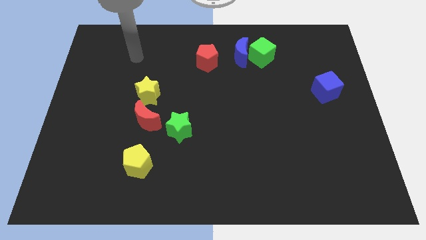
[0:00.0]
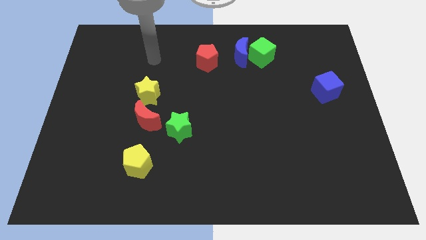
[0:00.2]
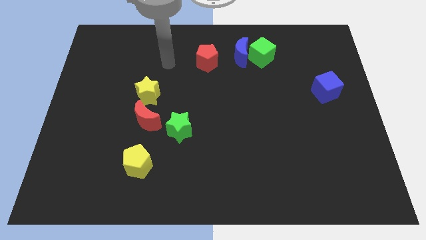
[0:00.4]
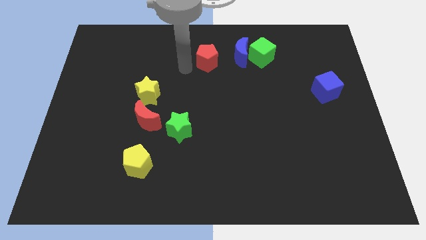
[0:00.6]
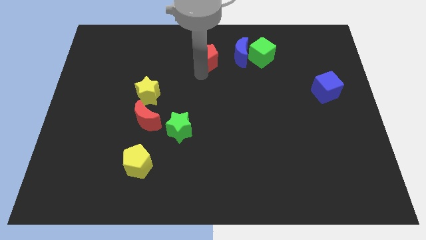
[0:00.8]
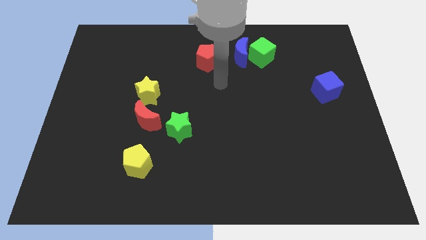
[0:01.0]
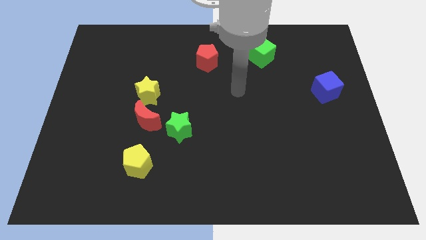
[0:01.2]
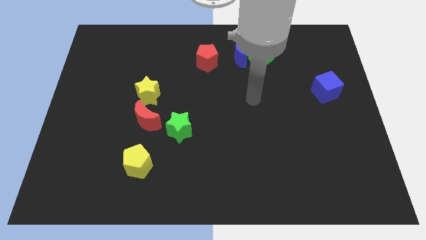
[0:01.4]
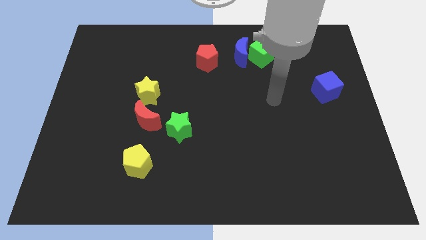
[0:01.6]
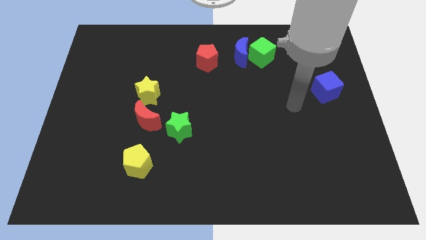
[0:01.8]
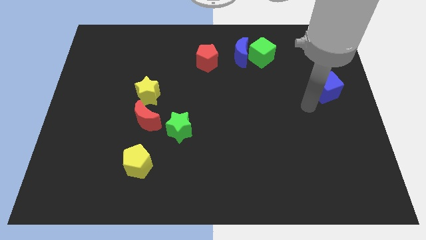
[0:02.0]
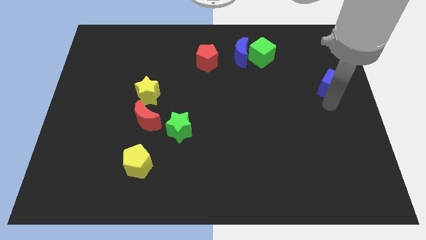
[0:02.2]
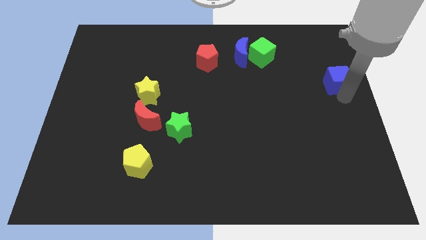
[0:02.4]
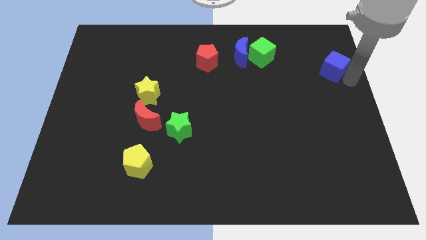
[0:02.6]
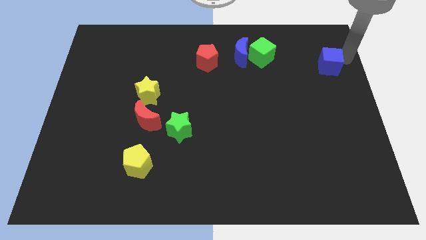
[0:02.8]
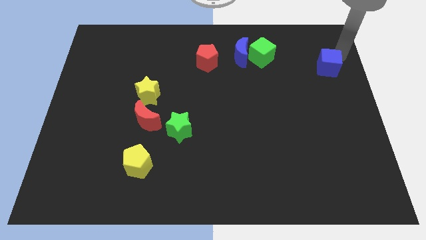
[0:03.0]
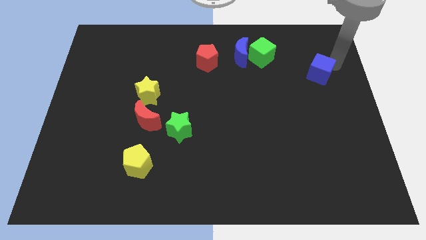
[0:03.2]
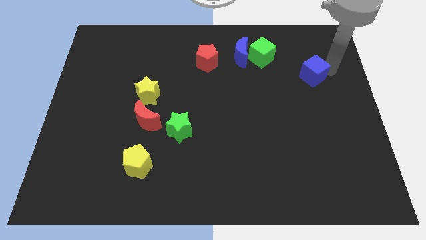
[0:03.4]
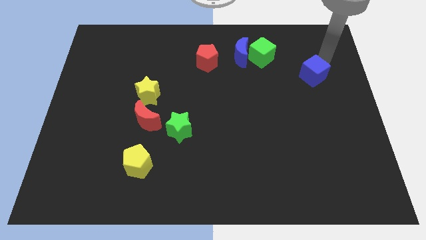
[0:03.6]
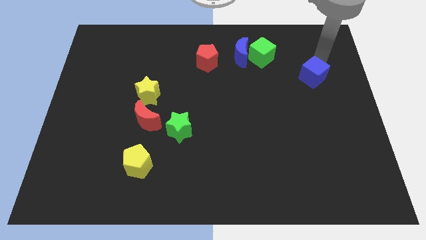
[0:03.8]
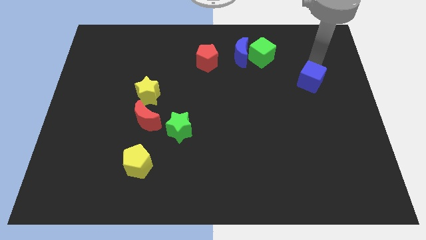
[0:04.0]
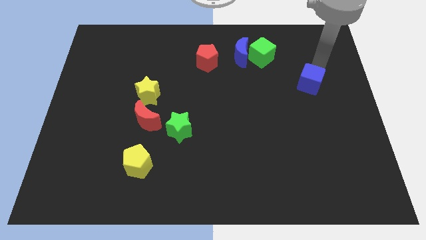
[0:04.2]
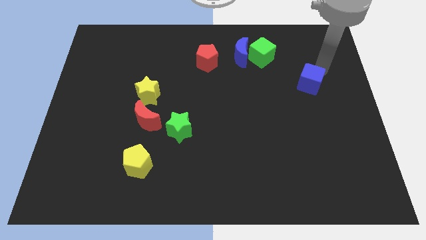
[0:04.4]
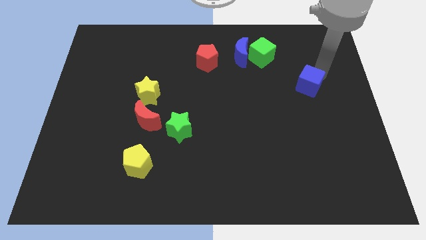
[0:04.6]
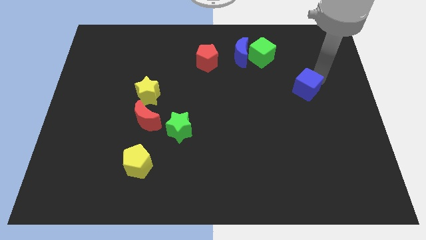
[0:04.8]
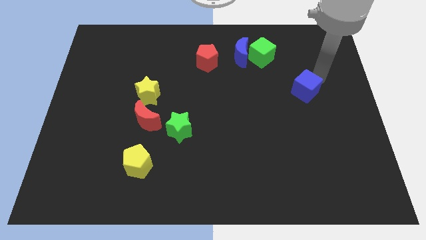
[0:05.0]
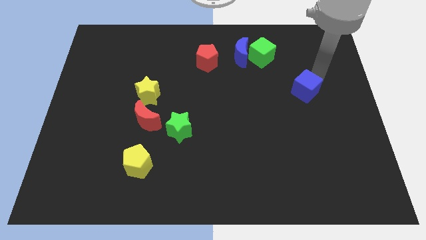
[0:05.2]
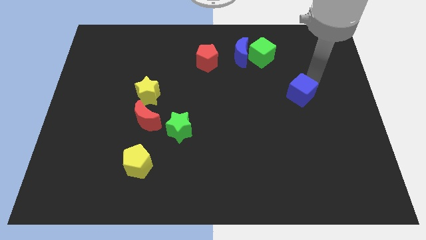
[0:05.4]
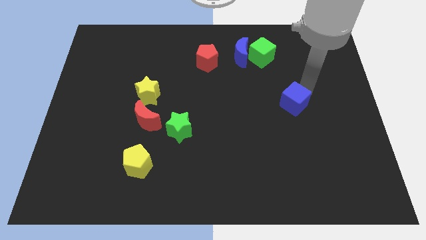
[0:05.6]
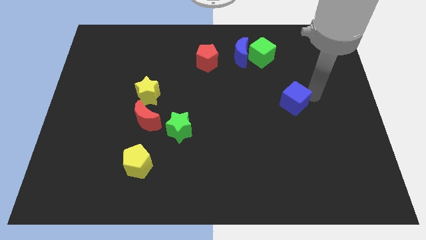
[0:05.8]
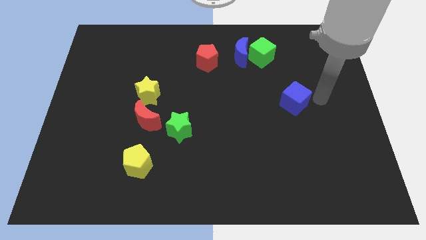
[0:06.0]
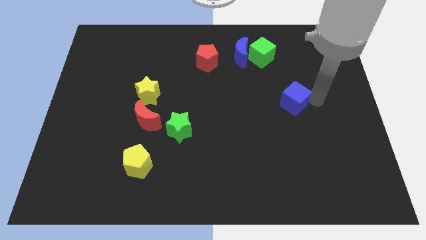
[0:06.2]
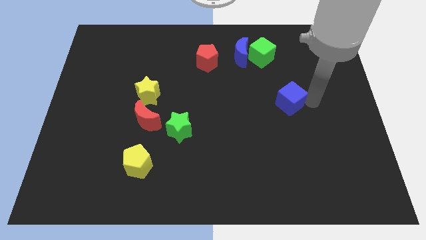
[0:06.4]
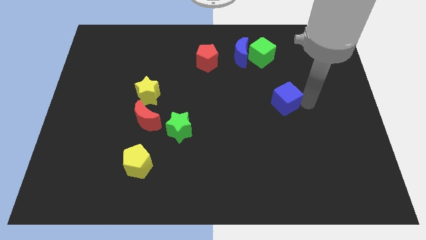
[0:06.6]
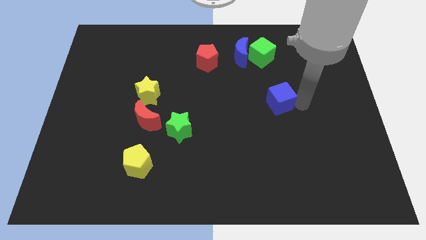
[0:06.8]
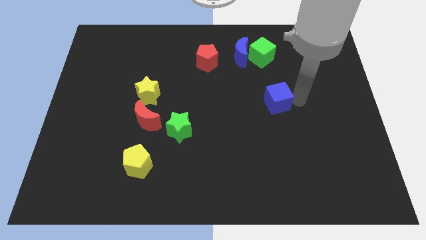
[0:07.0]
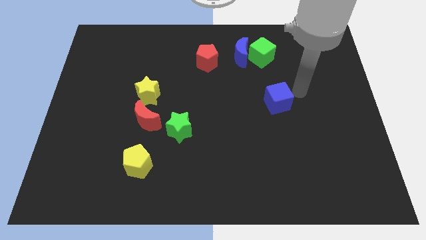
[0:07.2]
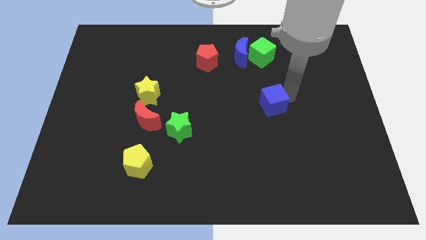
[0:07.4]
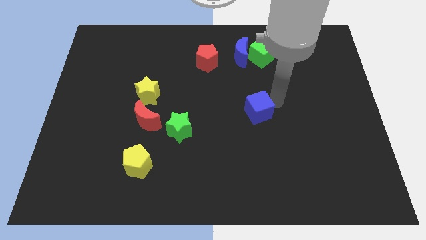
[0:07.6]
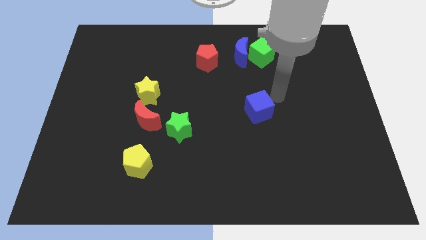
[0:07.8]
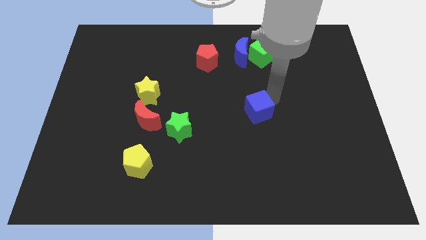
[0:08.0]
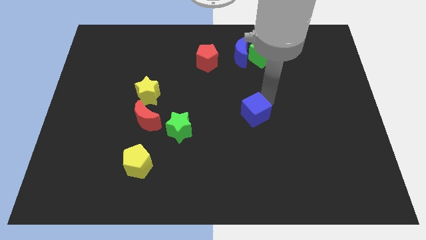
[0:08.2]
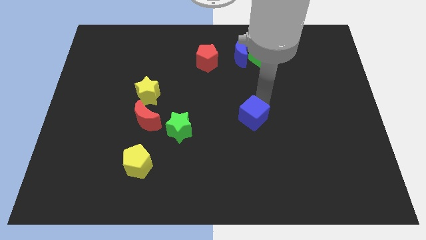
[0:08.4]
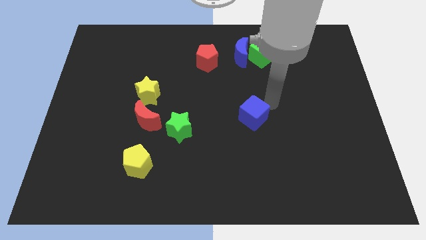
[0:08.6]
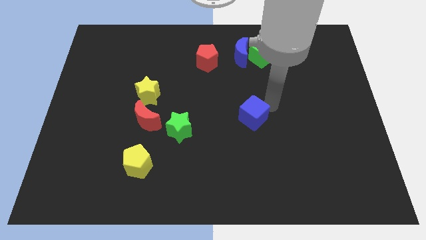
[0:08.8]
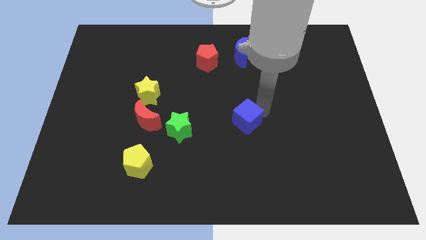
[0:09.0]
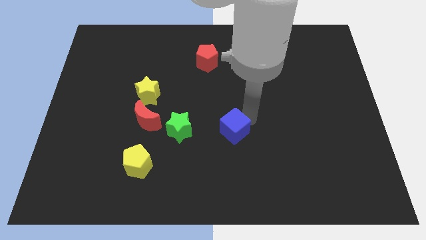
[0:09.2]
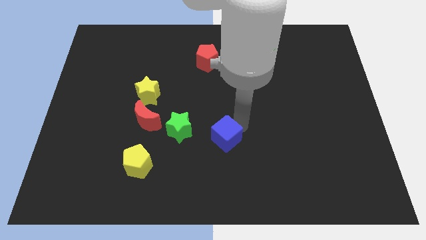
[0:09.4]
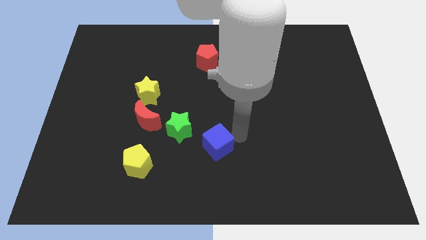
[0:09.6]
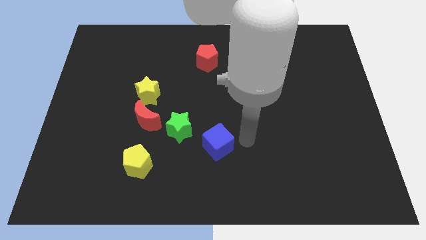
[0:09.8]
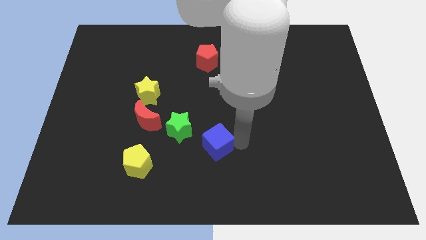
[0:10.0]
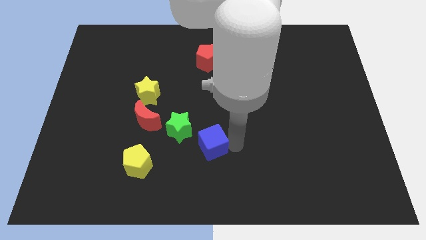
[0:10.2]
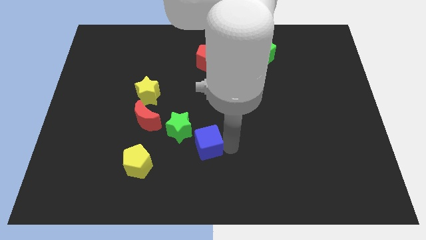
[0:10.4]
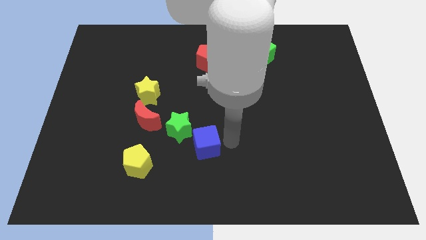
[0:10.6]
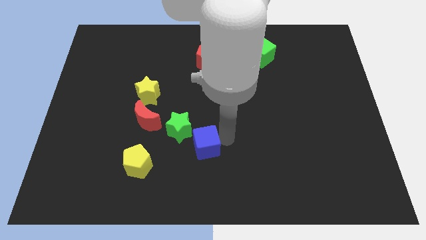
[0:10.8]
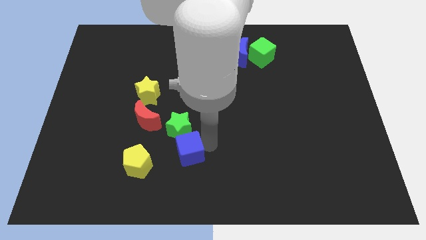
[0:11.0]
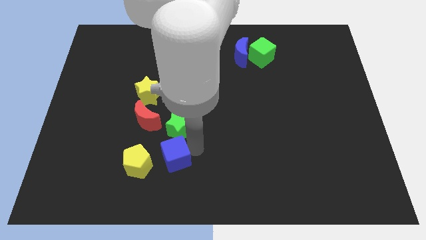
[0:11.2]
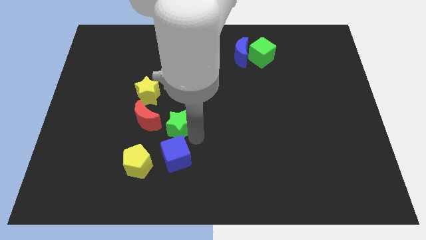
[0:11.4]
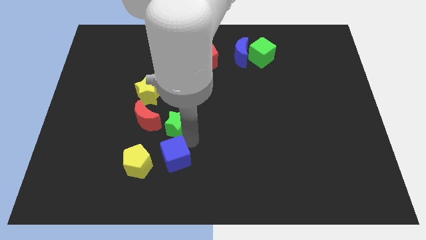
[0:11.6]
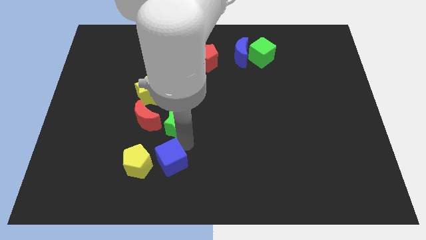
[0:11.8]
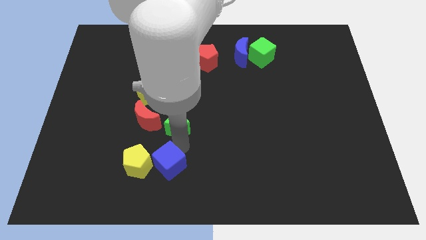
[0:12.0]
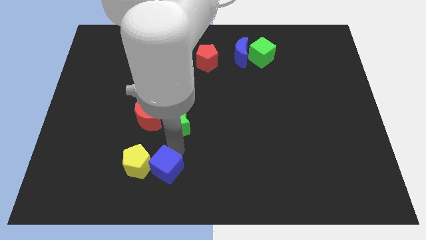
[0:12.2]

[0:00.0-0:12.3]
push the blue cube next to the yellow pentagon

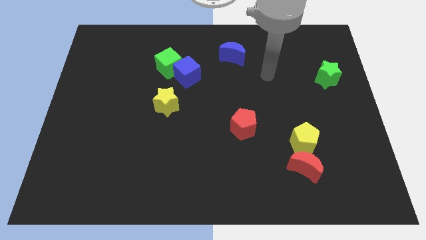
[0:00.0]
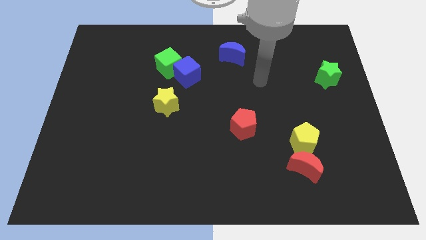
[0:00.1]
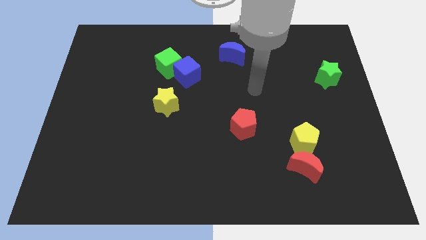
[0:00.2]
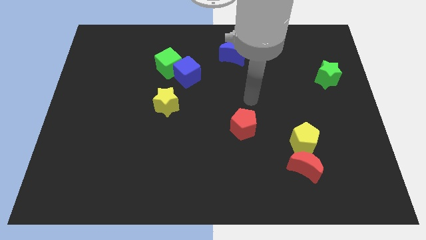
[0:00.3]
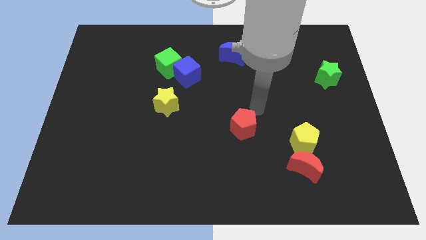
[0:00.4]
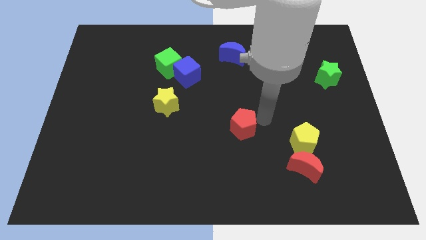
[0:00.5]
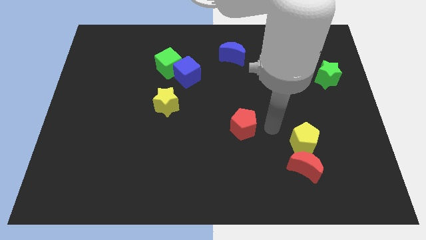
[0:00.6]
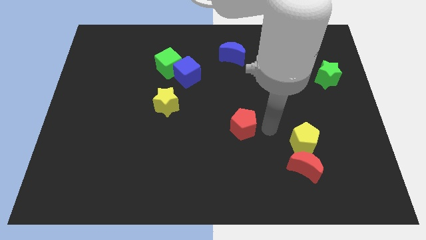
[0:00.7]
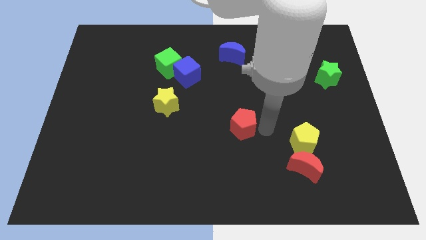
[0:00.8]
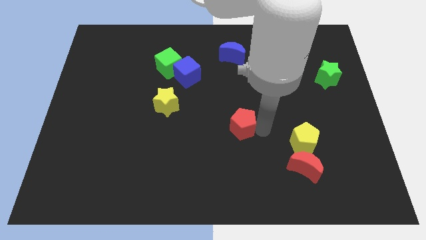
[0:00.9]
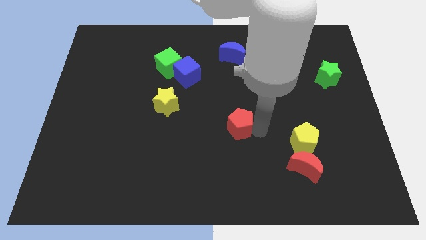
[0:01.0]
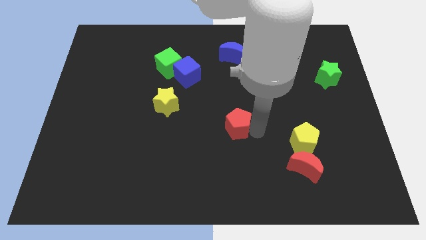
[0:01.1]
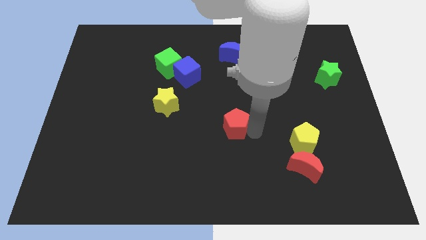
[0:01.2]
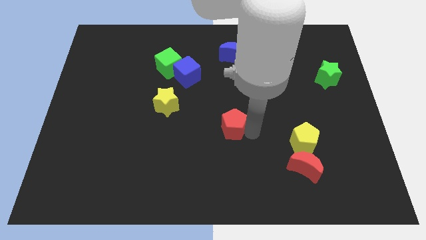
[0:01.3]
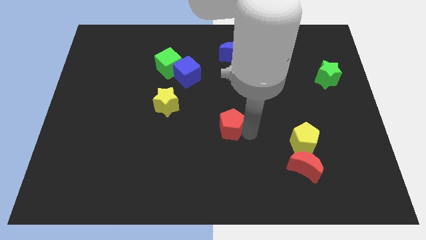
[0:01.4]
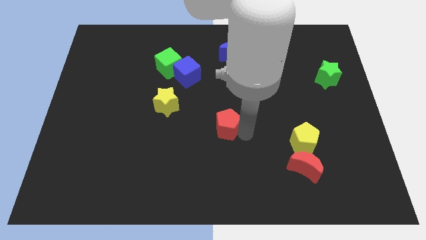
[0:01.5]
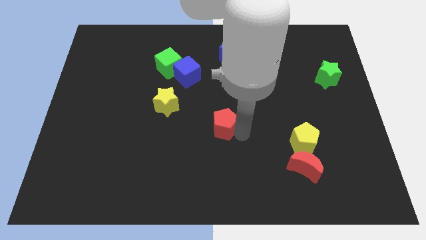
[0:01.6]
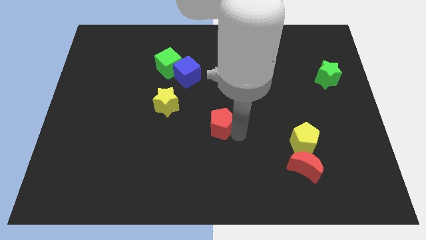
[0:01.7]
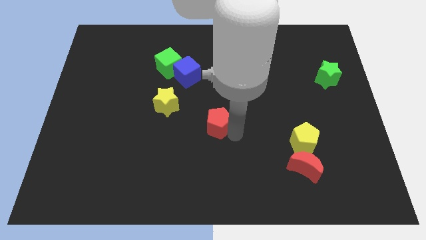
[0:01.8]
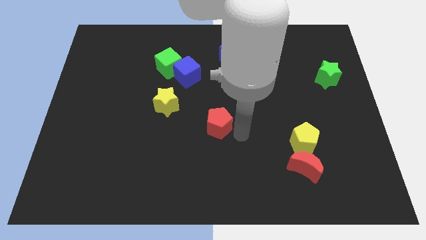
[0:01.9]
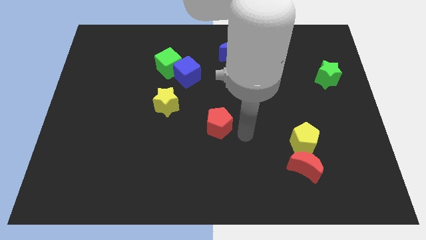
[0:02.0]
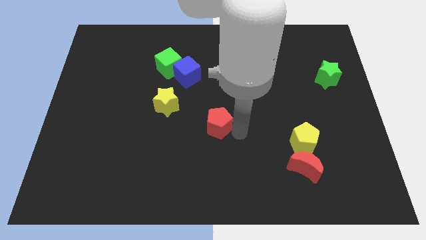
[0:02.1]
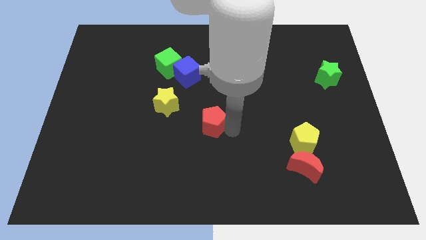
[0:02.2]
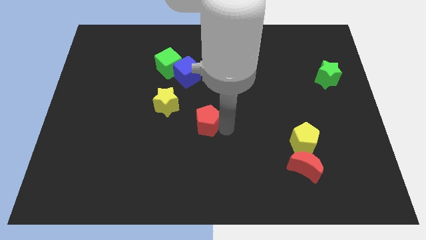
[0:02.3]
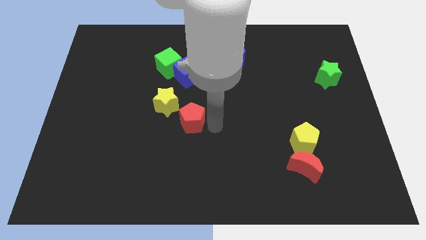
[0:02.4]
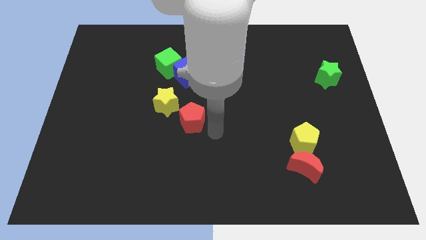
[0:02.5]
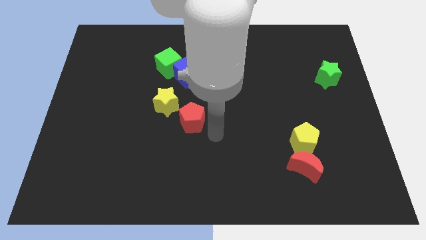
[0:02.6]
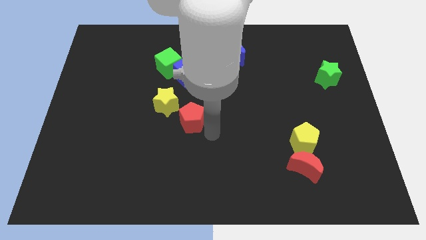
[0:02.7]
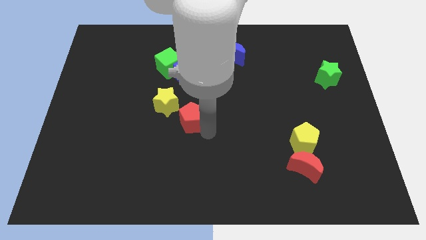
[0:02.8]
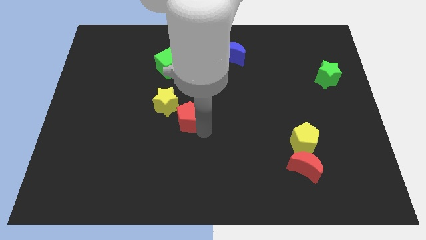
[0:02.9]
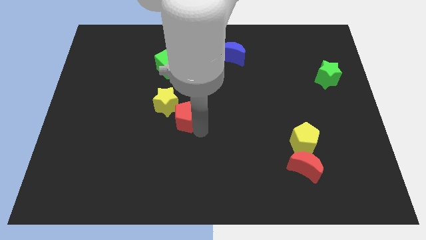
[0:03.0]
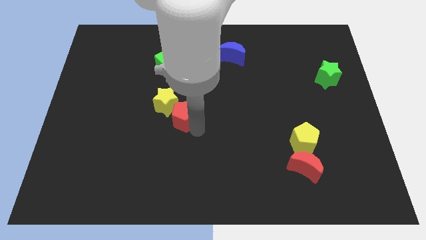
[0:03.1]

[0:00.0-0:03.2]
push the red pentagon next to the yellow star
